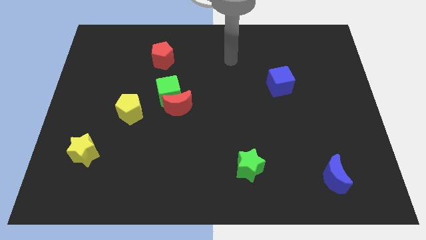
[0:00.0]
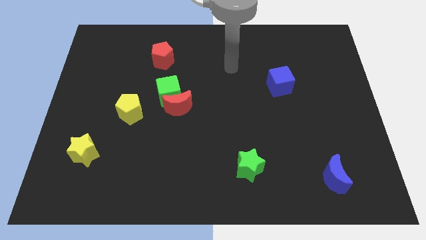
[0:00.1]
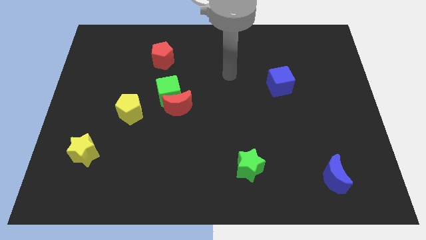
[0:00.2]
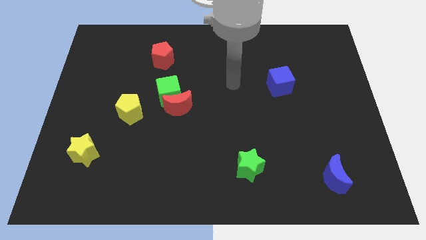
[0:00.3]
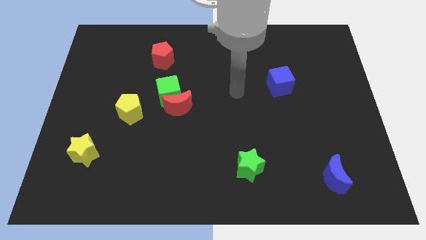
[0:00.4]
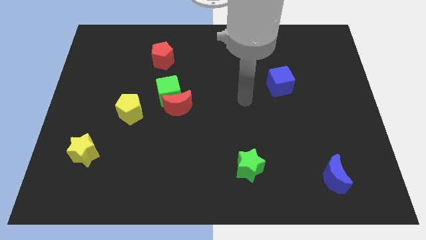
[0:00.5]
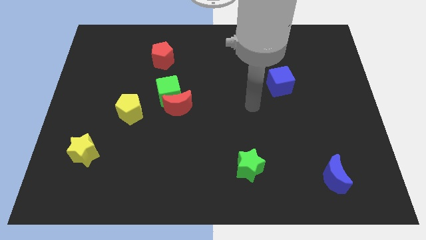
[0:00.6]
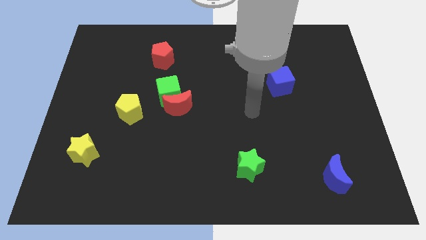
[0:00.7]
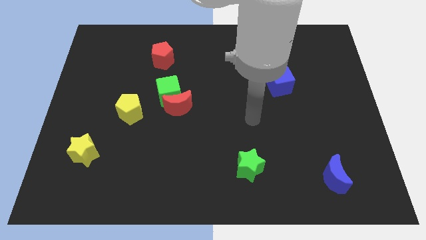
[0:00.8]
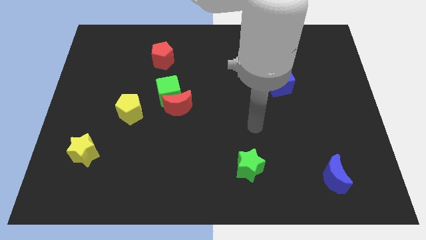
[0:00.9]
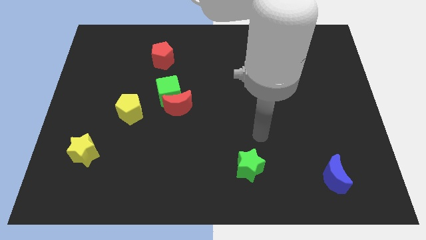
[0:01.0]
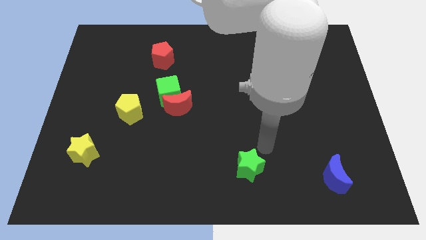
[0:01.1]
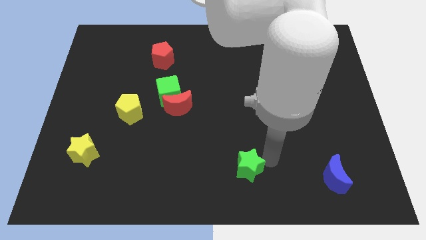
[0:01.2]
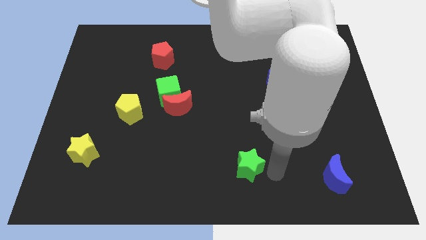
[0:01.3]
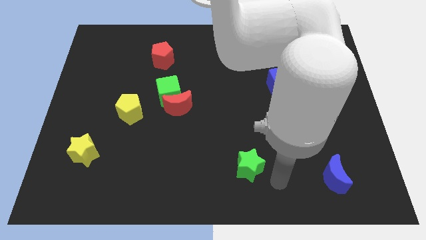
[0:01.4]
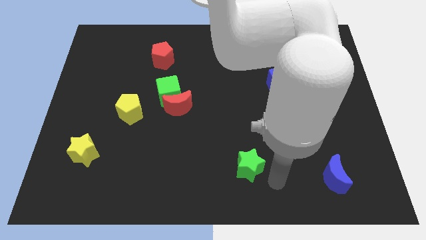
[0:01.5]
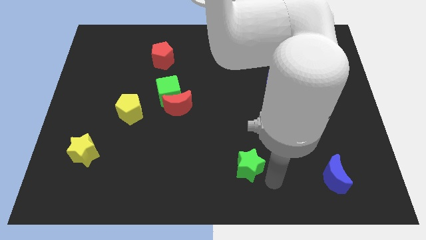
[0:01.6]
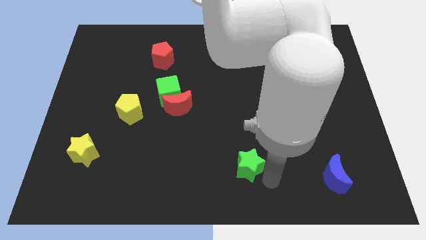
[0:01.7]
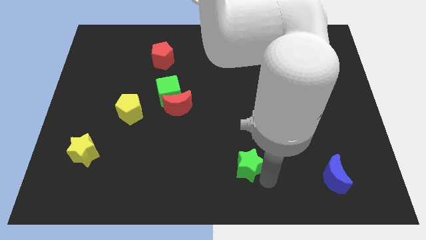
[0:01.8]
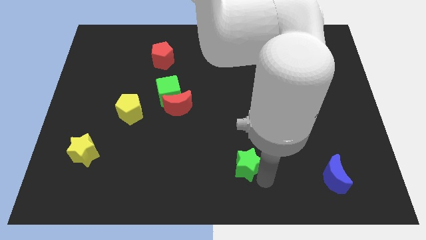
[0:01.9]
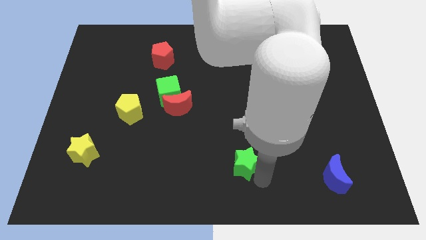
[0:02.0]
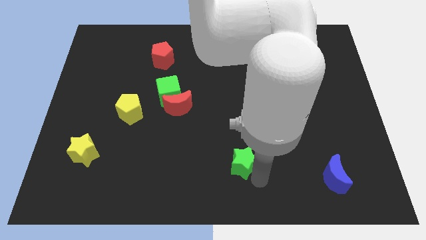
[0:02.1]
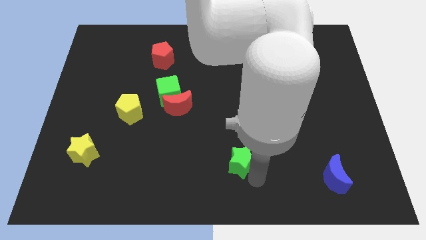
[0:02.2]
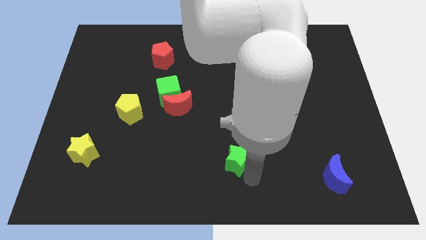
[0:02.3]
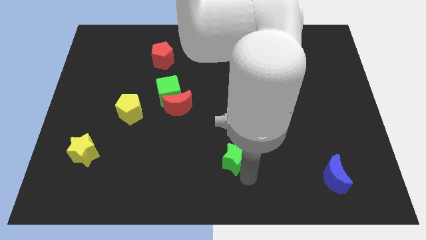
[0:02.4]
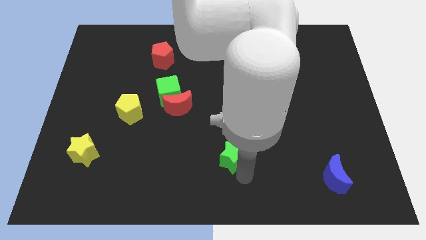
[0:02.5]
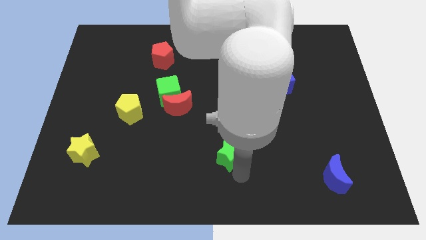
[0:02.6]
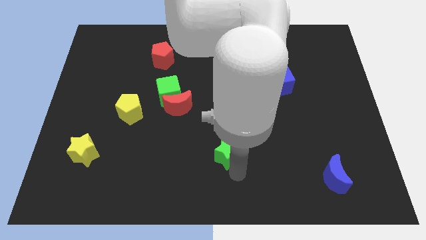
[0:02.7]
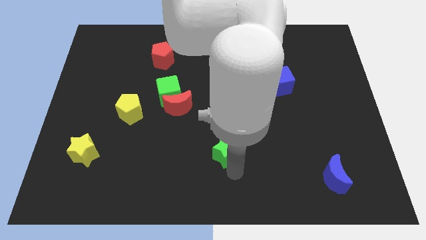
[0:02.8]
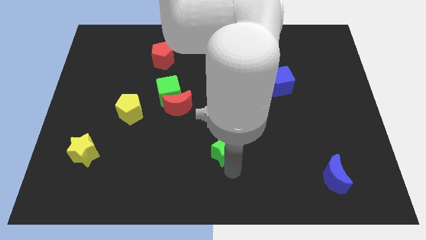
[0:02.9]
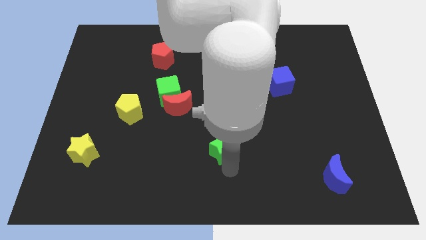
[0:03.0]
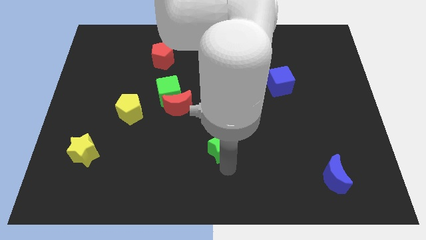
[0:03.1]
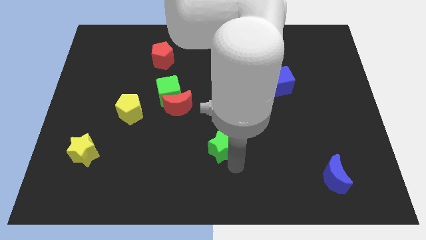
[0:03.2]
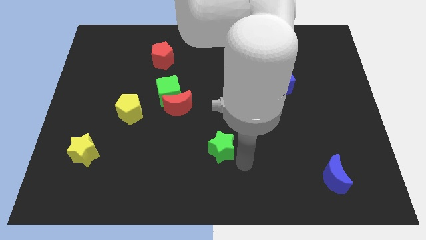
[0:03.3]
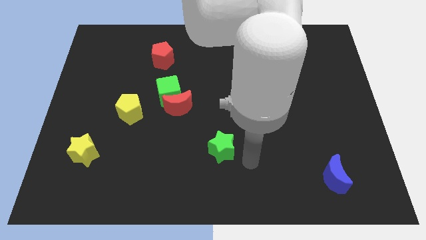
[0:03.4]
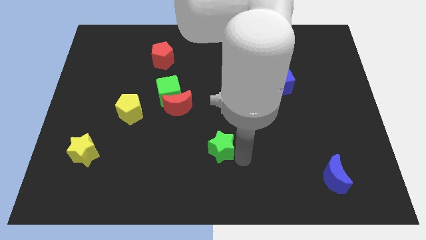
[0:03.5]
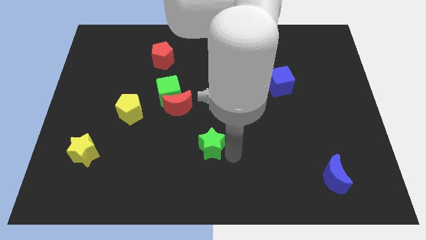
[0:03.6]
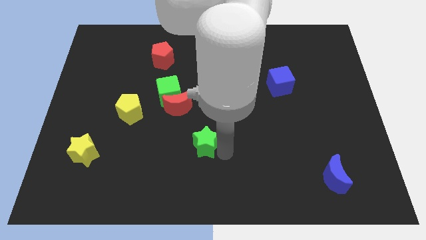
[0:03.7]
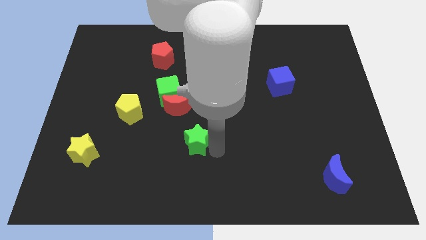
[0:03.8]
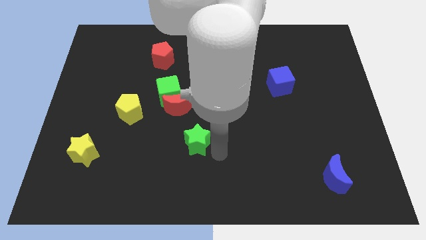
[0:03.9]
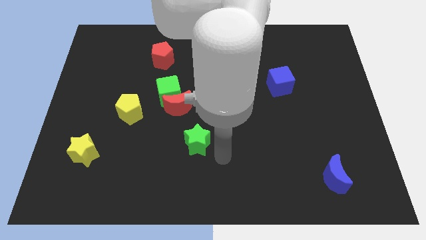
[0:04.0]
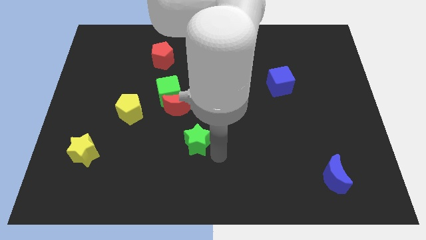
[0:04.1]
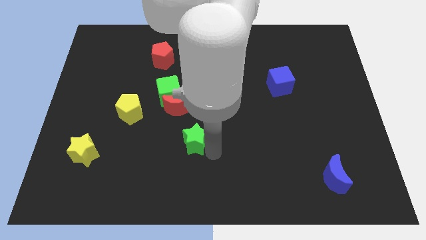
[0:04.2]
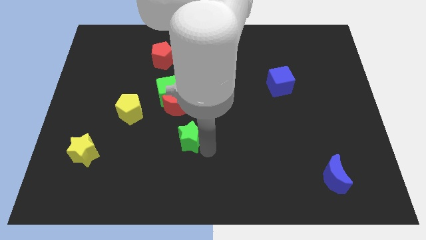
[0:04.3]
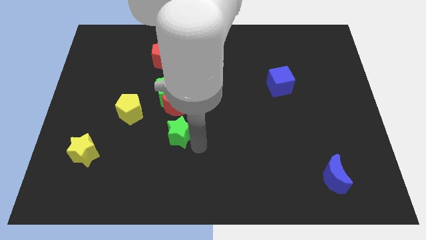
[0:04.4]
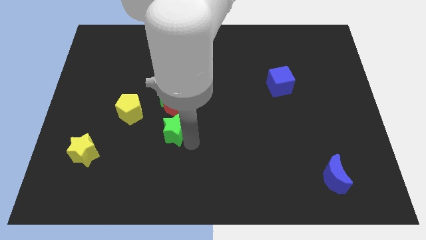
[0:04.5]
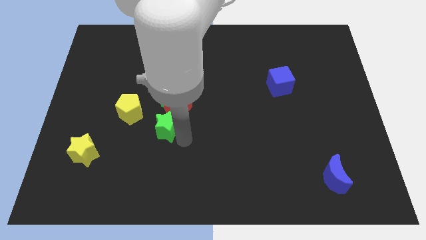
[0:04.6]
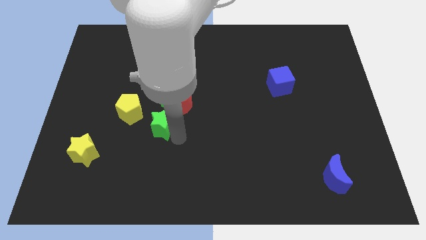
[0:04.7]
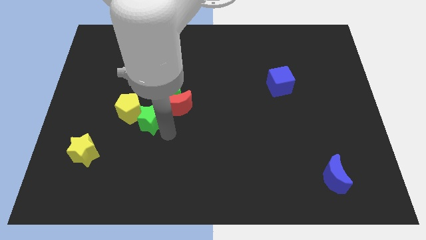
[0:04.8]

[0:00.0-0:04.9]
push the green star up and to the left diagonally

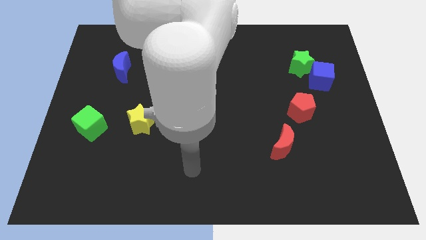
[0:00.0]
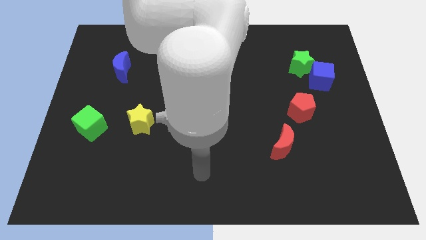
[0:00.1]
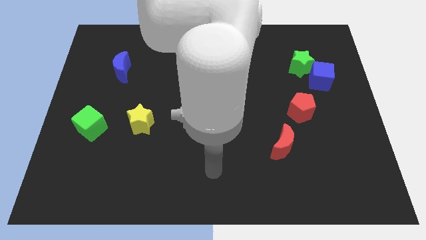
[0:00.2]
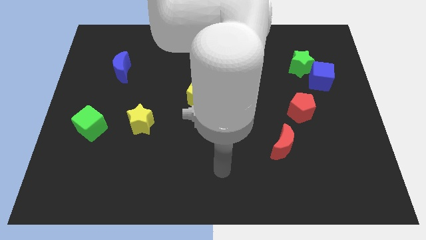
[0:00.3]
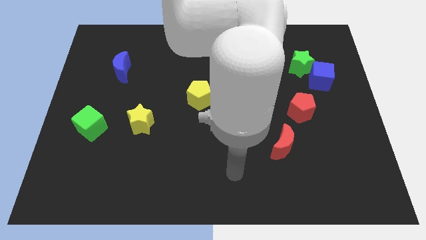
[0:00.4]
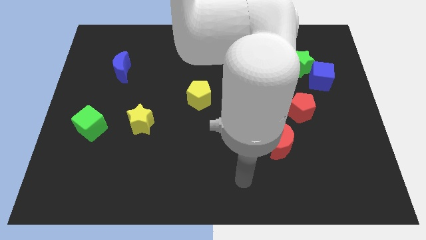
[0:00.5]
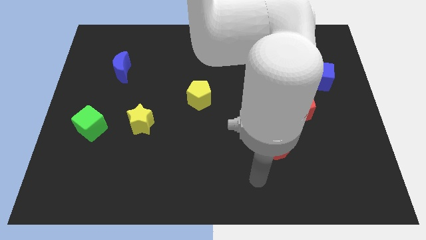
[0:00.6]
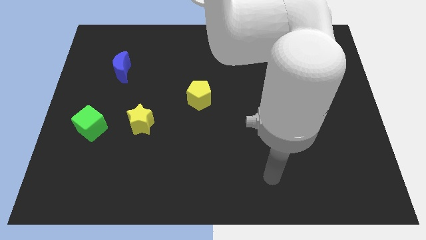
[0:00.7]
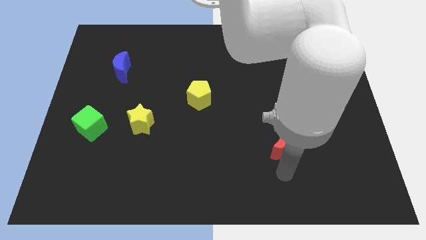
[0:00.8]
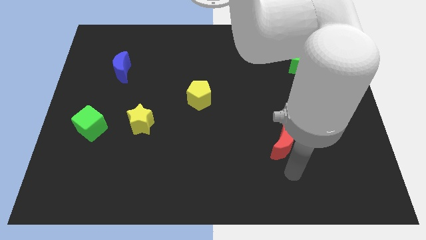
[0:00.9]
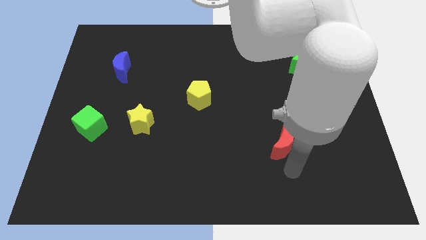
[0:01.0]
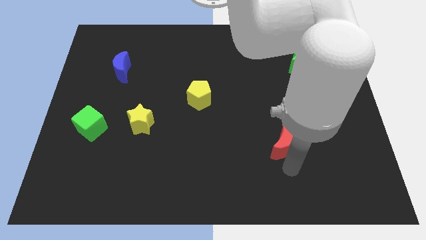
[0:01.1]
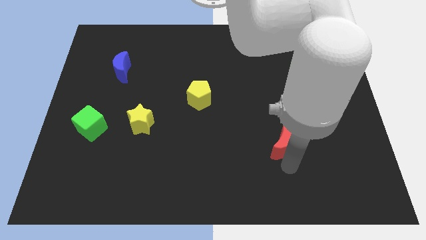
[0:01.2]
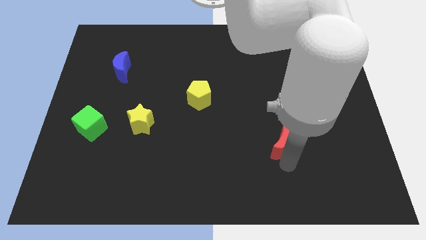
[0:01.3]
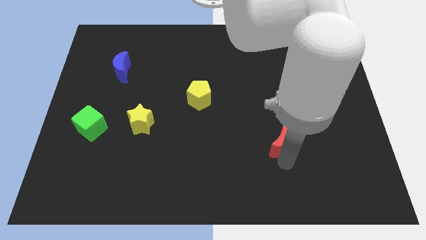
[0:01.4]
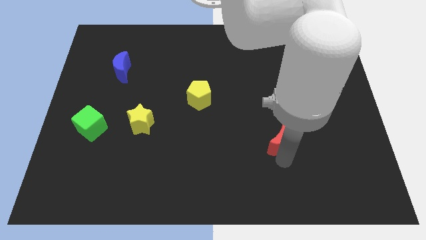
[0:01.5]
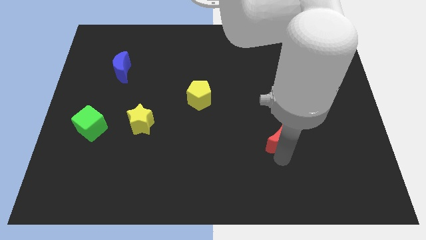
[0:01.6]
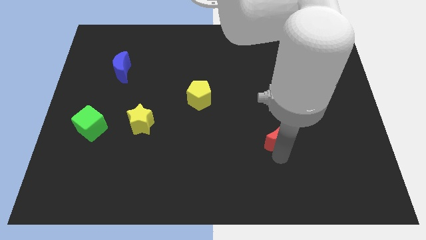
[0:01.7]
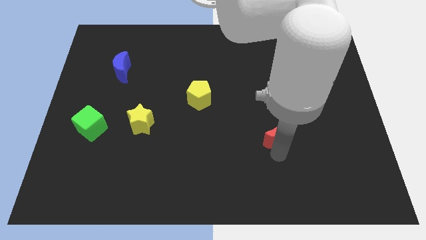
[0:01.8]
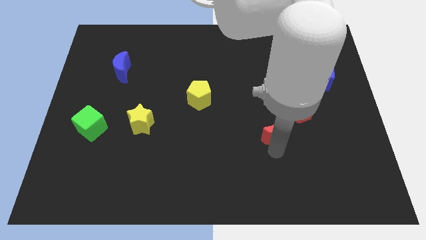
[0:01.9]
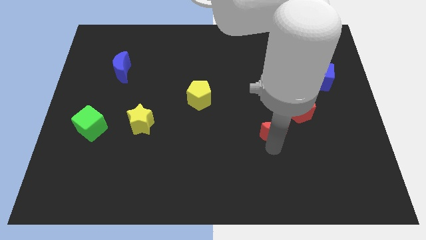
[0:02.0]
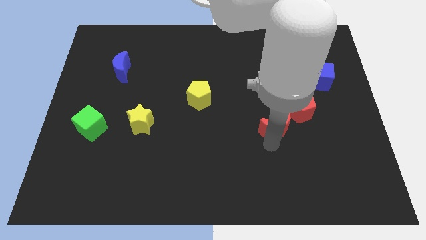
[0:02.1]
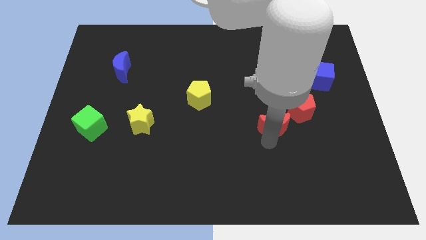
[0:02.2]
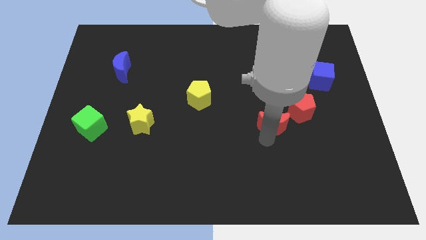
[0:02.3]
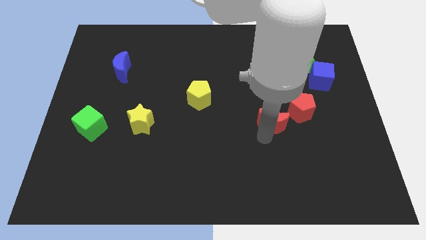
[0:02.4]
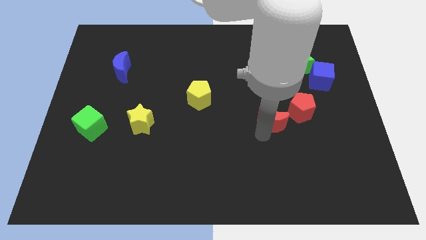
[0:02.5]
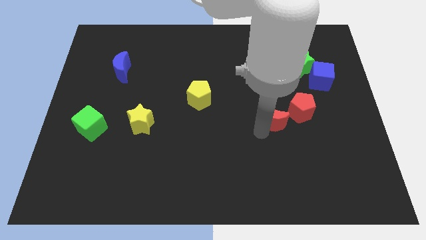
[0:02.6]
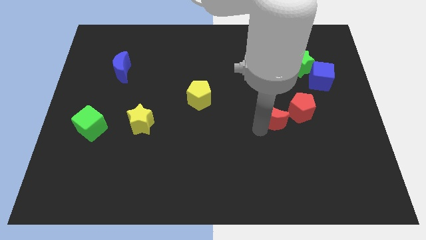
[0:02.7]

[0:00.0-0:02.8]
slide the red moon a bit up

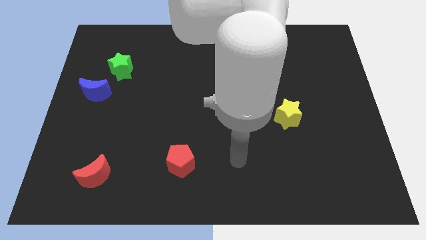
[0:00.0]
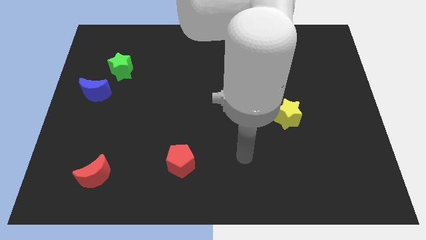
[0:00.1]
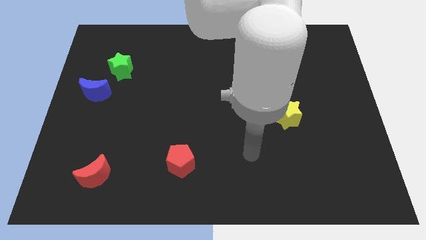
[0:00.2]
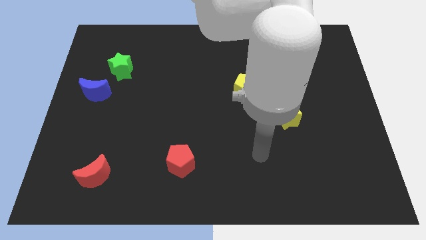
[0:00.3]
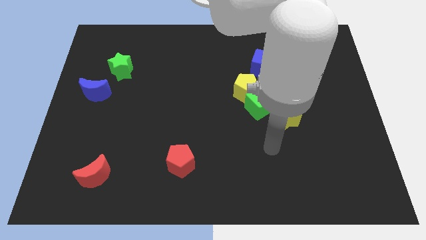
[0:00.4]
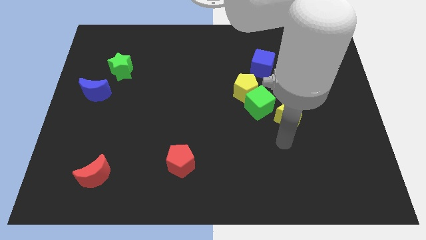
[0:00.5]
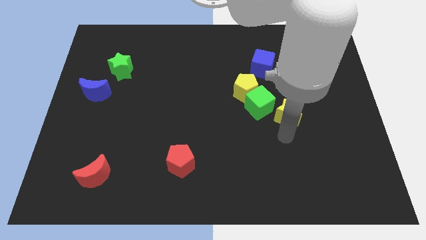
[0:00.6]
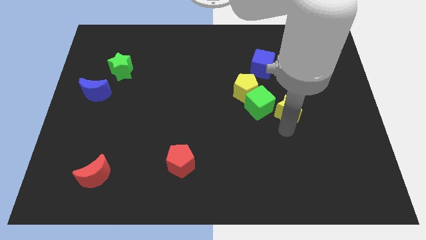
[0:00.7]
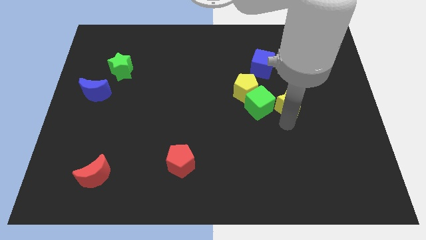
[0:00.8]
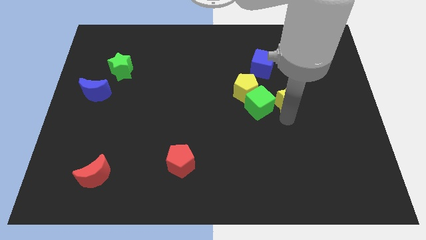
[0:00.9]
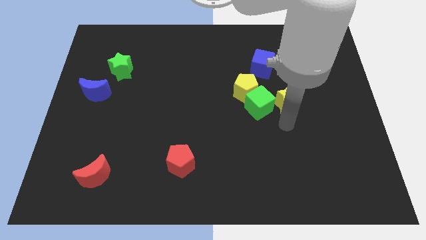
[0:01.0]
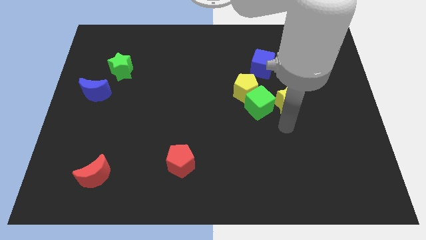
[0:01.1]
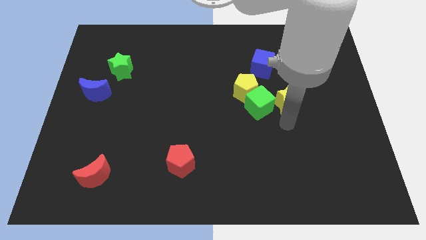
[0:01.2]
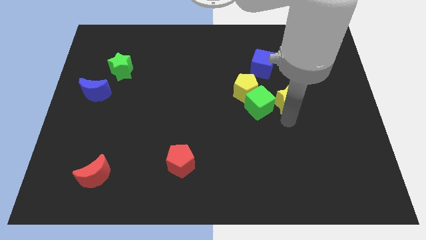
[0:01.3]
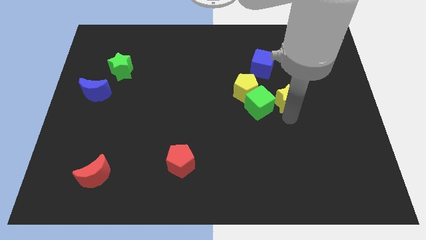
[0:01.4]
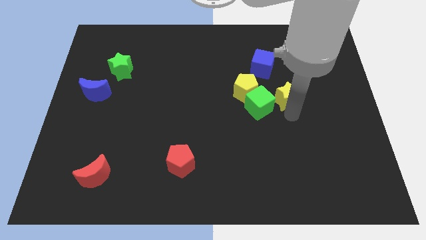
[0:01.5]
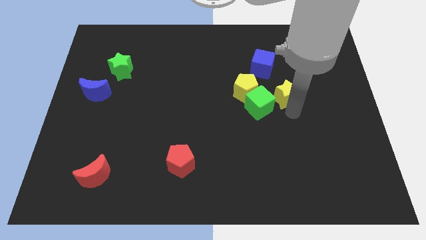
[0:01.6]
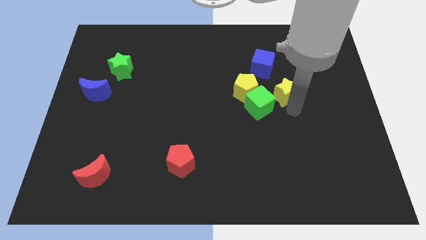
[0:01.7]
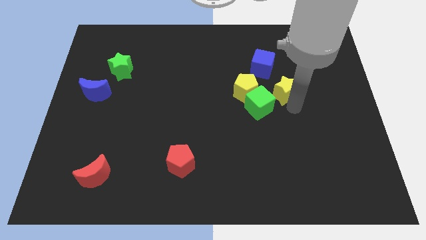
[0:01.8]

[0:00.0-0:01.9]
move the yellow star upwards a bit
